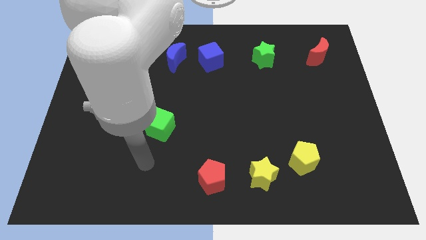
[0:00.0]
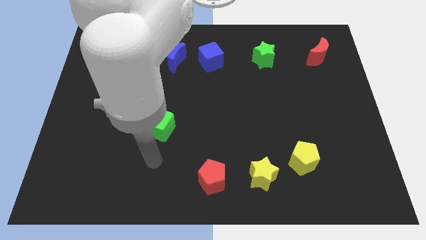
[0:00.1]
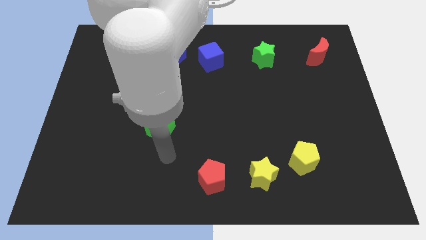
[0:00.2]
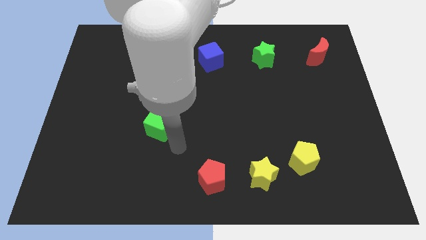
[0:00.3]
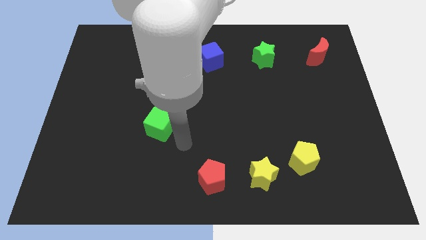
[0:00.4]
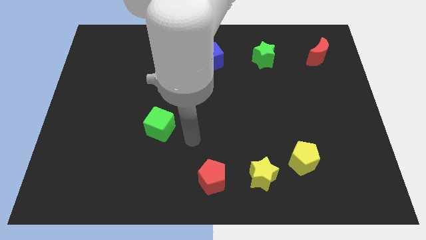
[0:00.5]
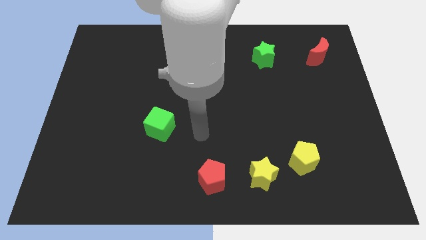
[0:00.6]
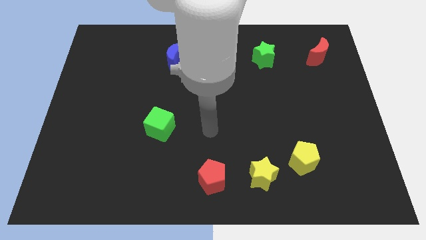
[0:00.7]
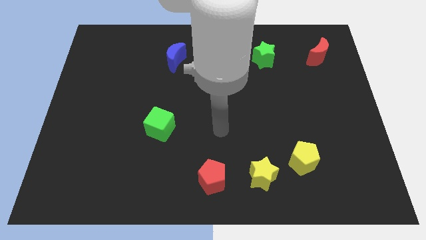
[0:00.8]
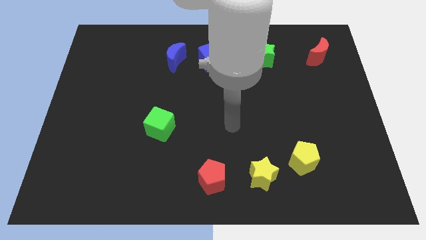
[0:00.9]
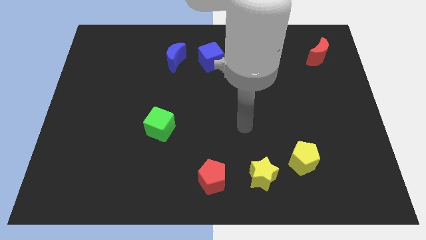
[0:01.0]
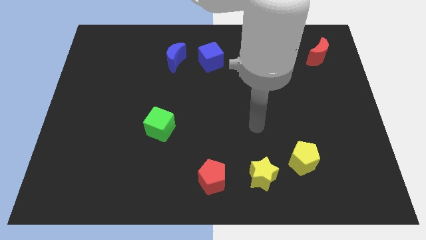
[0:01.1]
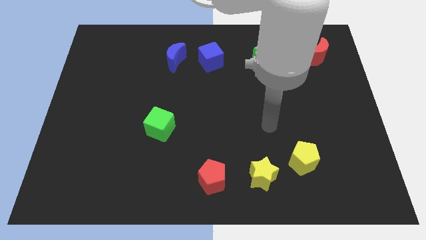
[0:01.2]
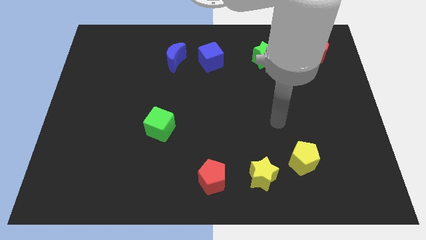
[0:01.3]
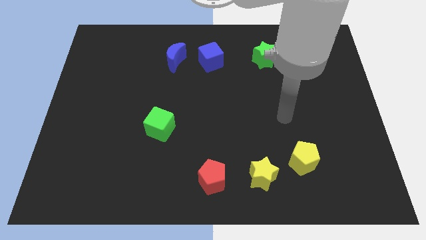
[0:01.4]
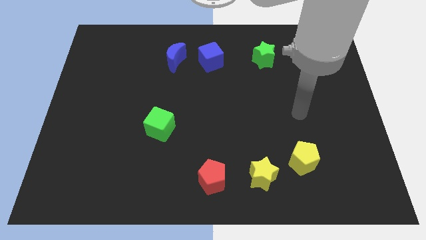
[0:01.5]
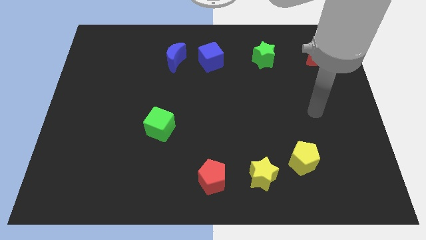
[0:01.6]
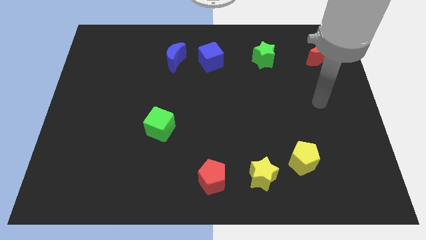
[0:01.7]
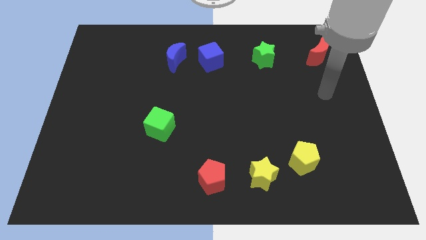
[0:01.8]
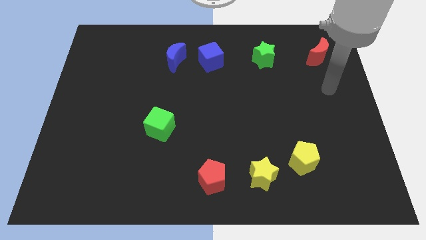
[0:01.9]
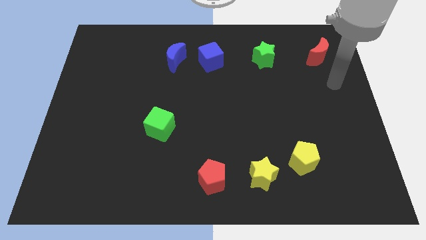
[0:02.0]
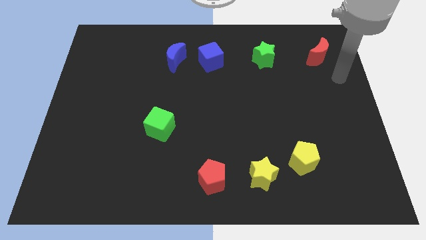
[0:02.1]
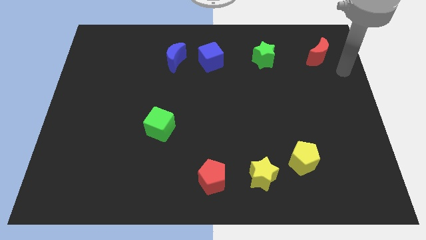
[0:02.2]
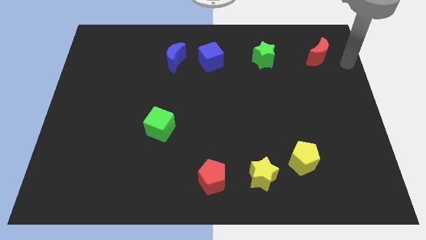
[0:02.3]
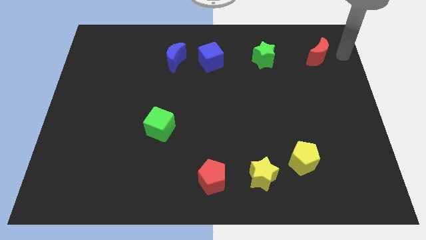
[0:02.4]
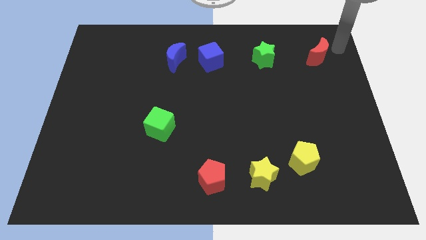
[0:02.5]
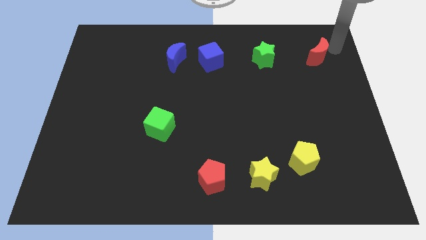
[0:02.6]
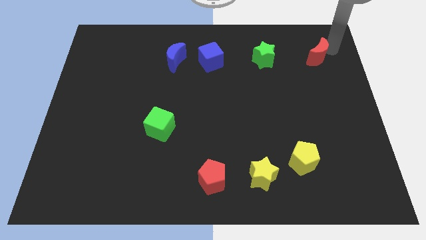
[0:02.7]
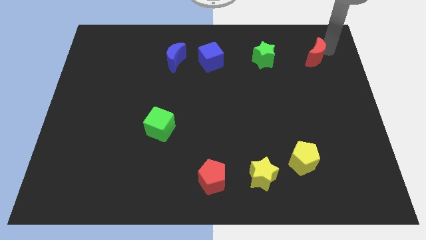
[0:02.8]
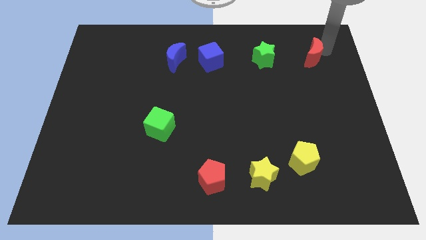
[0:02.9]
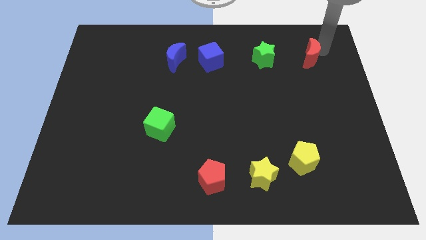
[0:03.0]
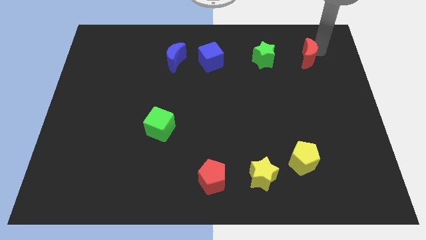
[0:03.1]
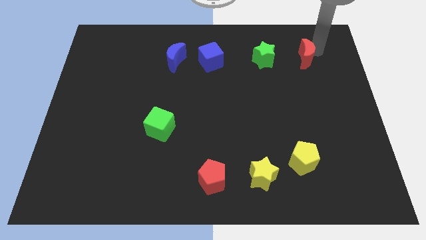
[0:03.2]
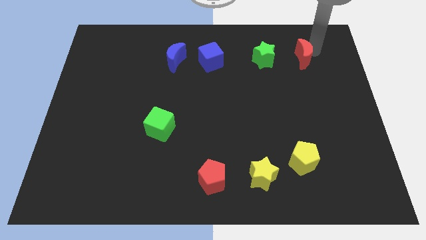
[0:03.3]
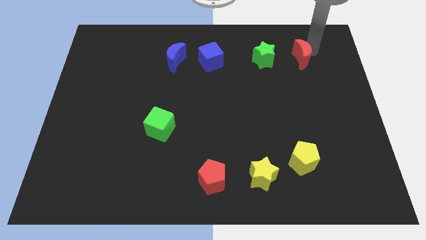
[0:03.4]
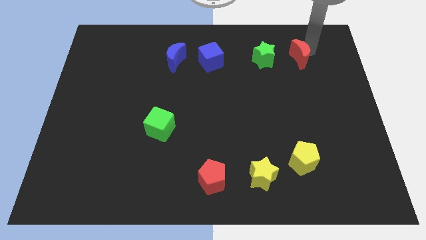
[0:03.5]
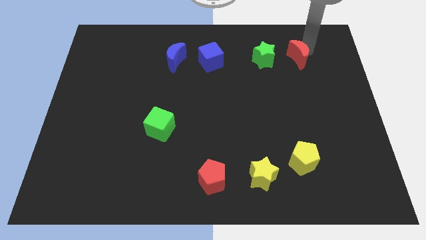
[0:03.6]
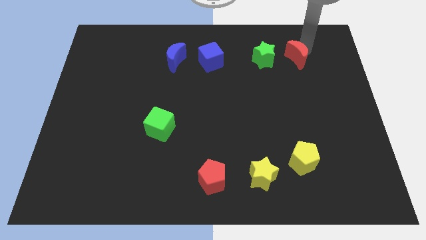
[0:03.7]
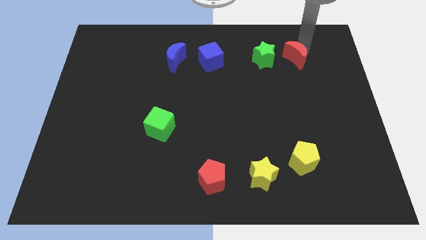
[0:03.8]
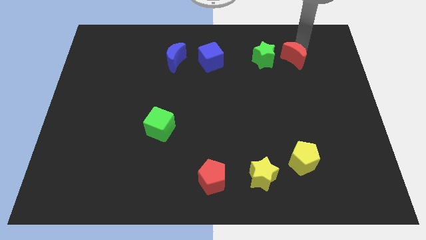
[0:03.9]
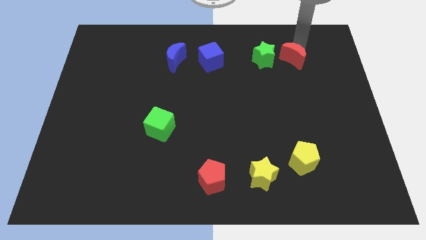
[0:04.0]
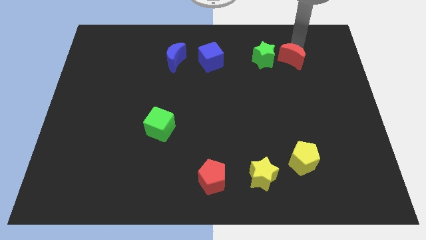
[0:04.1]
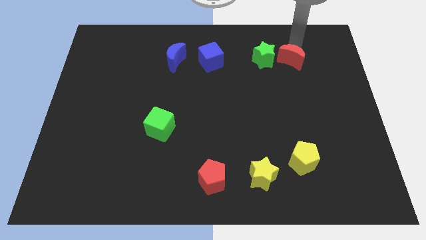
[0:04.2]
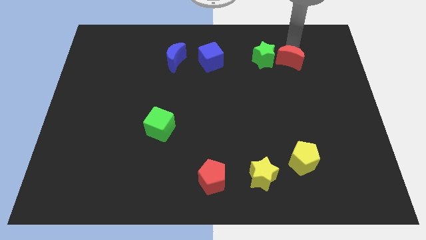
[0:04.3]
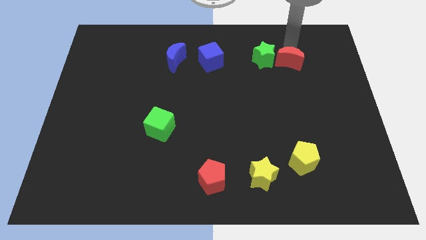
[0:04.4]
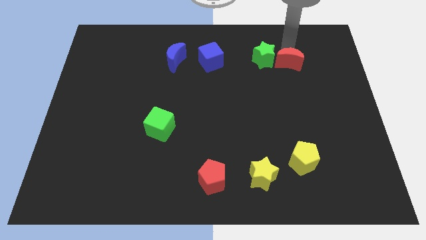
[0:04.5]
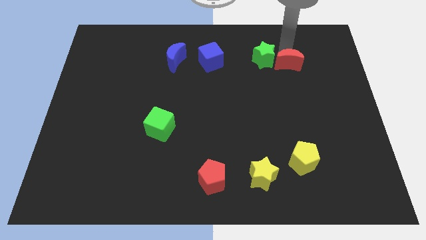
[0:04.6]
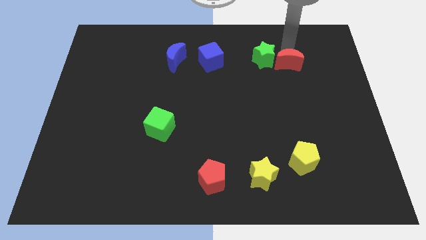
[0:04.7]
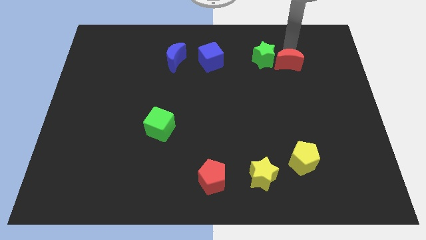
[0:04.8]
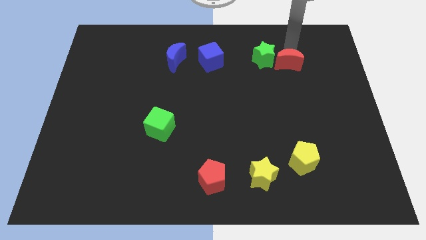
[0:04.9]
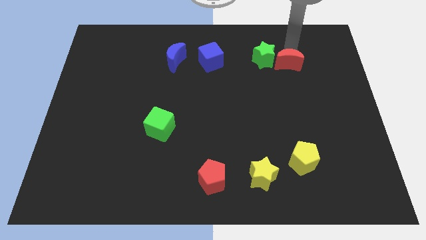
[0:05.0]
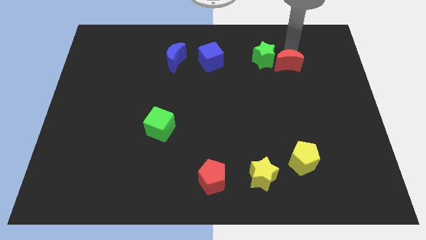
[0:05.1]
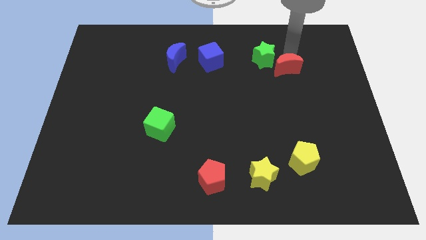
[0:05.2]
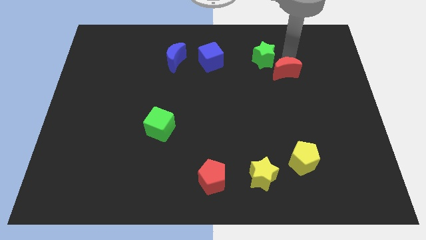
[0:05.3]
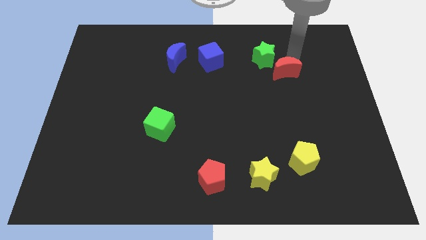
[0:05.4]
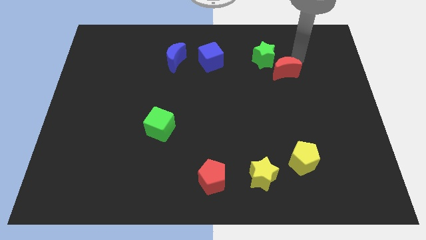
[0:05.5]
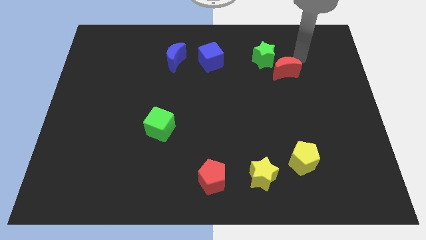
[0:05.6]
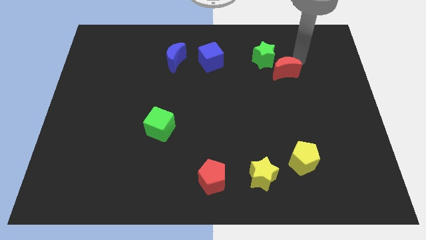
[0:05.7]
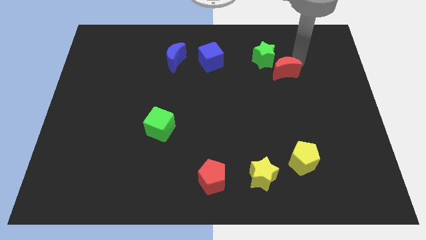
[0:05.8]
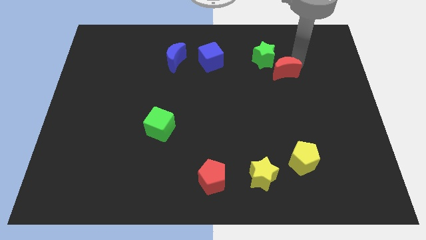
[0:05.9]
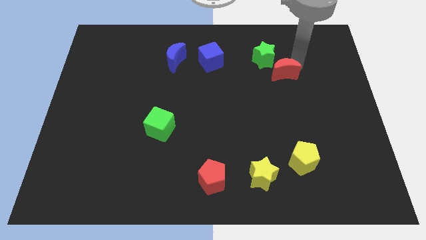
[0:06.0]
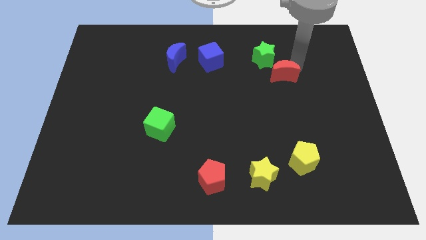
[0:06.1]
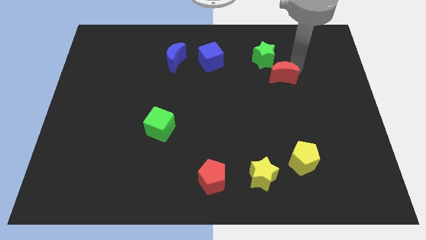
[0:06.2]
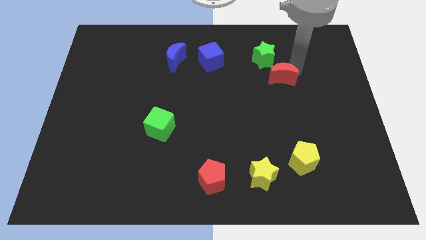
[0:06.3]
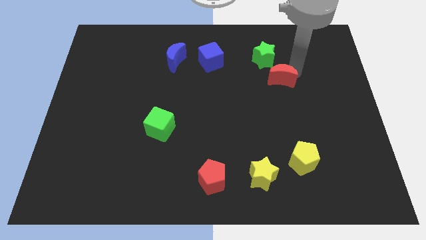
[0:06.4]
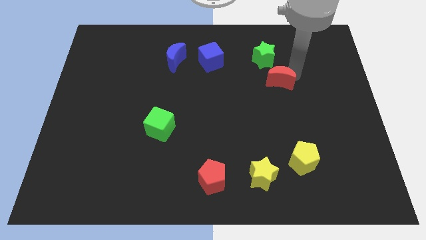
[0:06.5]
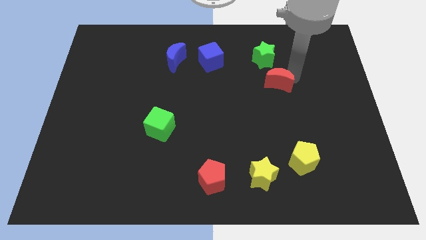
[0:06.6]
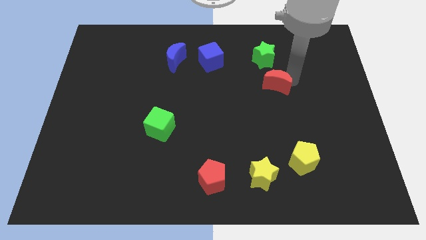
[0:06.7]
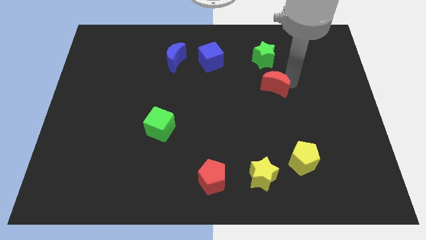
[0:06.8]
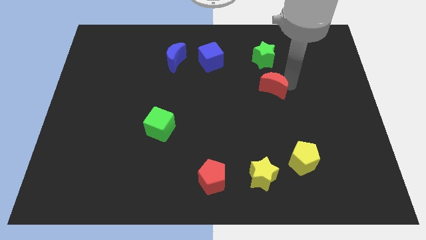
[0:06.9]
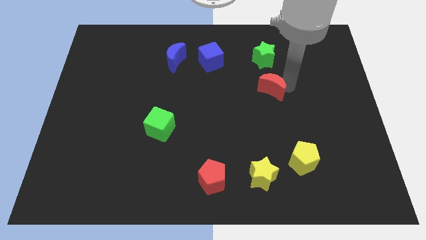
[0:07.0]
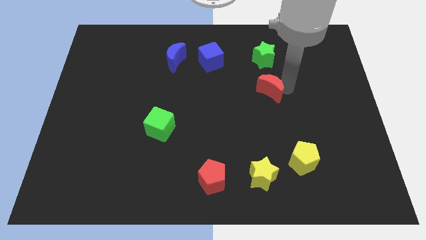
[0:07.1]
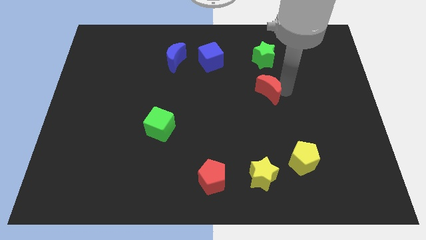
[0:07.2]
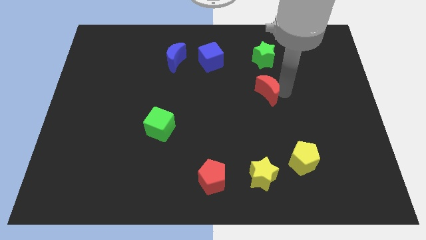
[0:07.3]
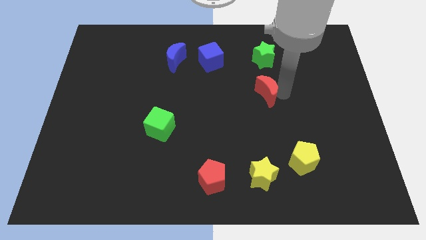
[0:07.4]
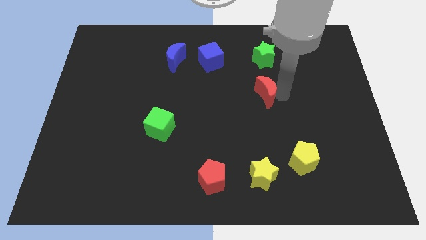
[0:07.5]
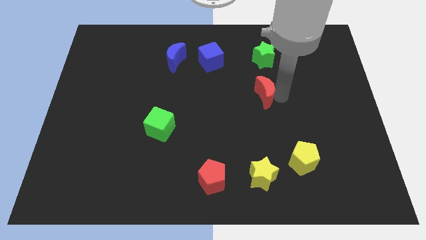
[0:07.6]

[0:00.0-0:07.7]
put the red moon to the middle

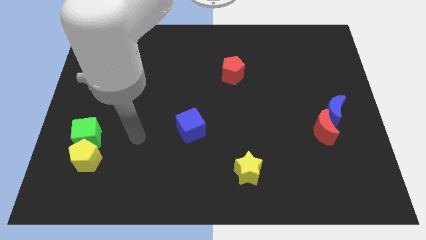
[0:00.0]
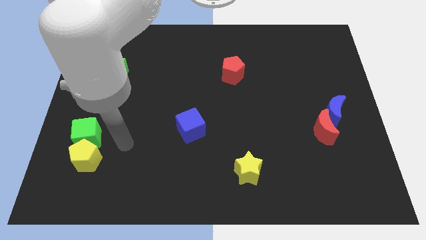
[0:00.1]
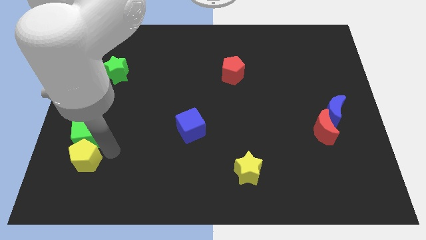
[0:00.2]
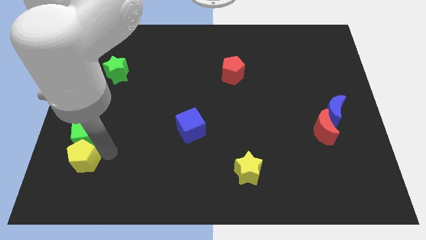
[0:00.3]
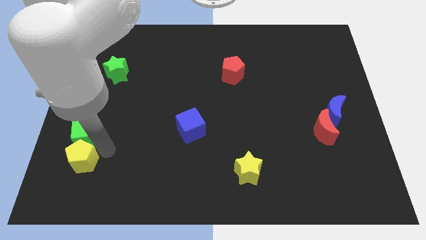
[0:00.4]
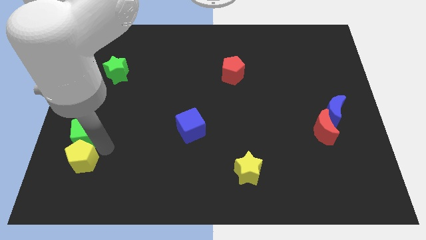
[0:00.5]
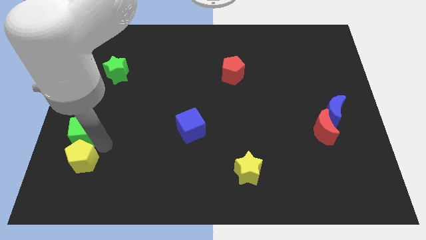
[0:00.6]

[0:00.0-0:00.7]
move the green cube to the left side of the board
